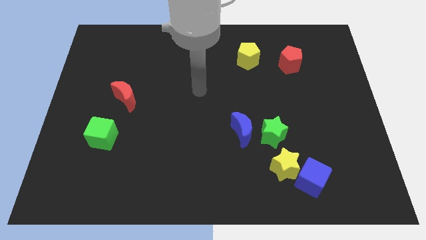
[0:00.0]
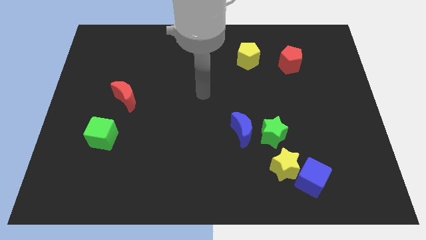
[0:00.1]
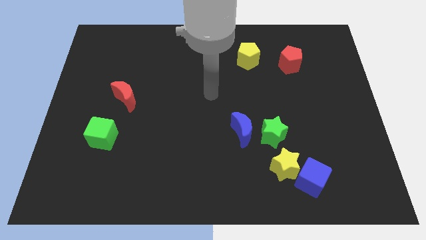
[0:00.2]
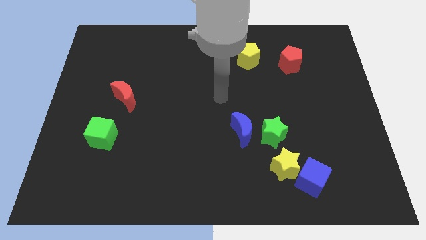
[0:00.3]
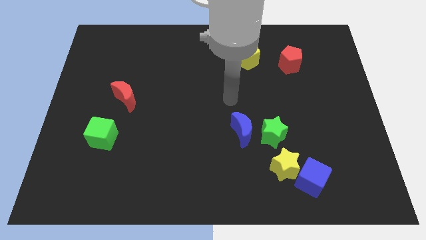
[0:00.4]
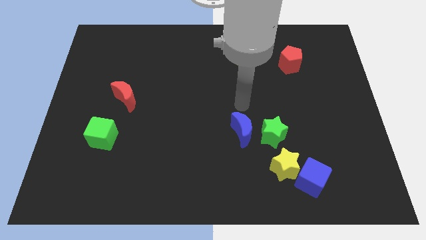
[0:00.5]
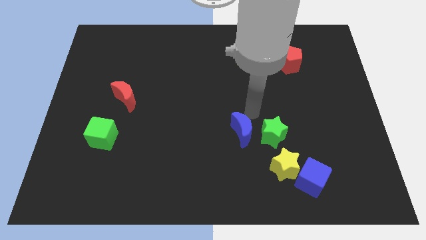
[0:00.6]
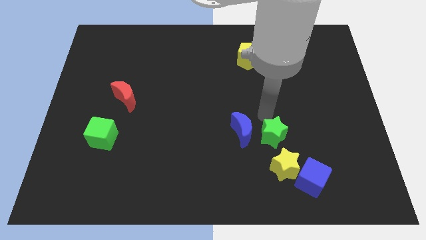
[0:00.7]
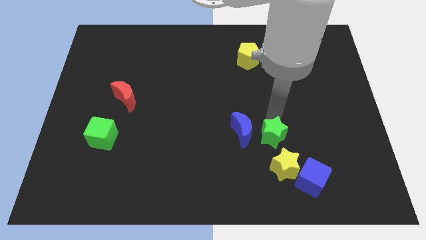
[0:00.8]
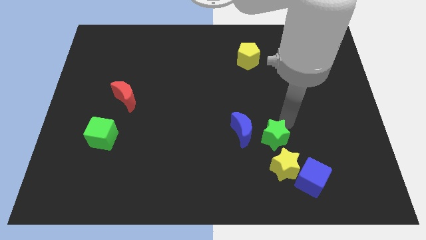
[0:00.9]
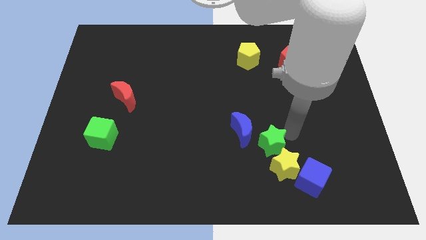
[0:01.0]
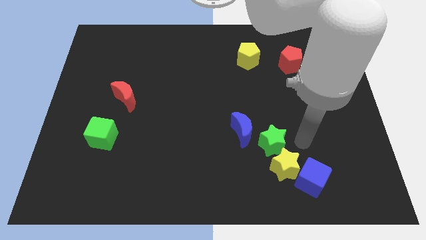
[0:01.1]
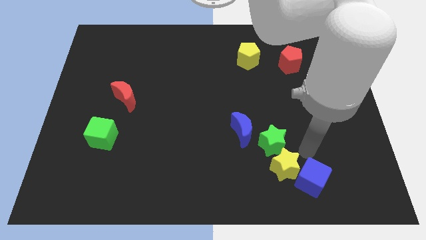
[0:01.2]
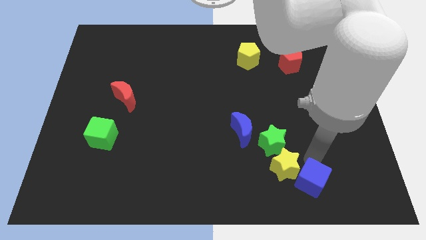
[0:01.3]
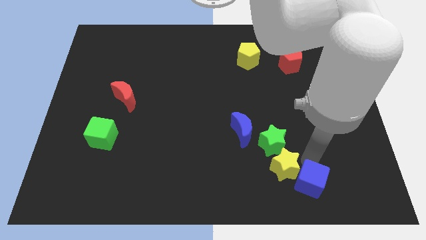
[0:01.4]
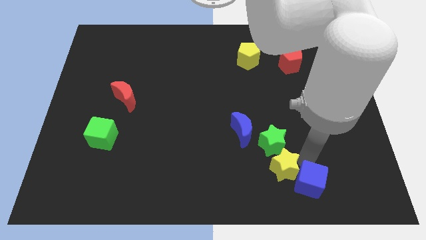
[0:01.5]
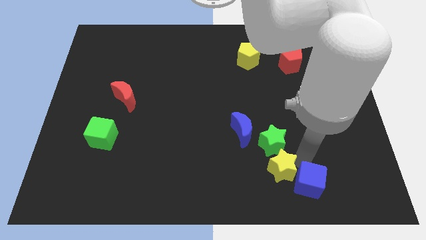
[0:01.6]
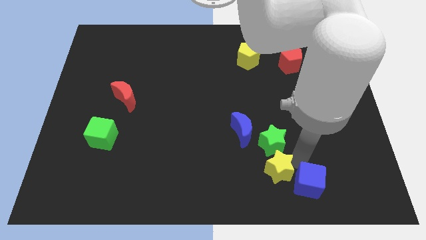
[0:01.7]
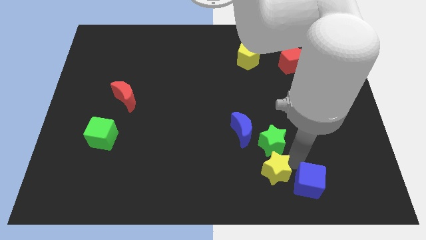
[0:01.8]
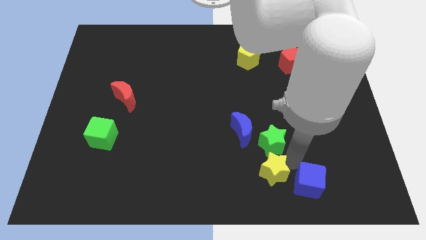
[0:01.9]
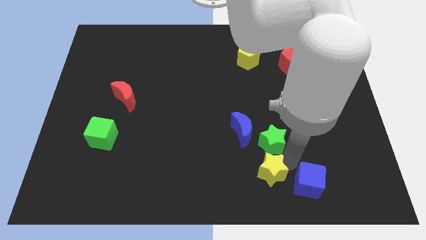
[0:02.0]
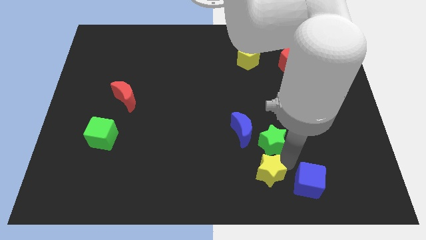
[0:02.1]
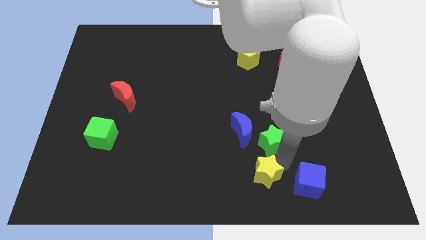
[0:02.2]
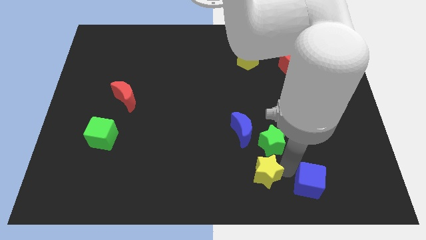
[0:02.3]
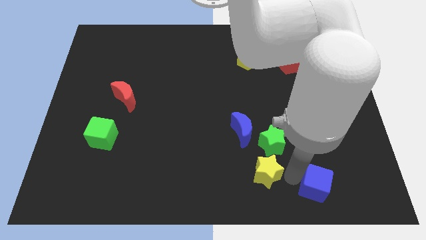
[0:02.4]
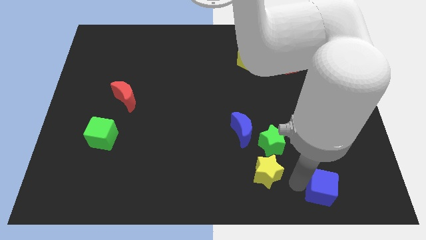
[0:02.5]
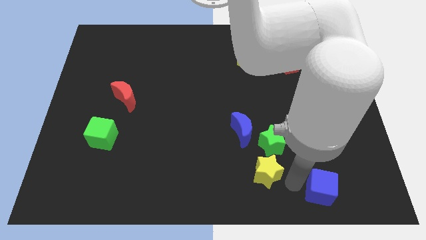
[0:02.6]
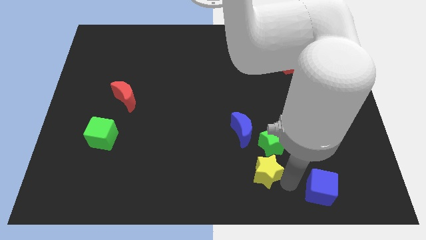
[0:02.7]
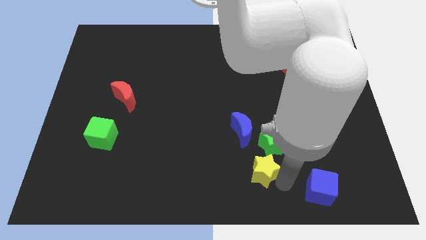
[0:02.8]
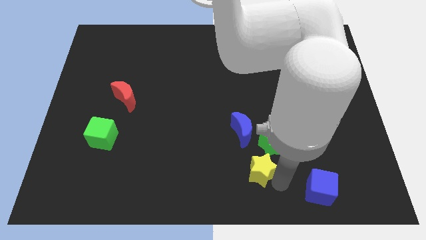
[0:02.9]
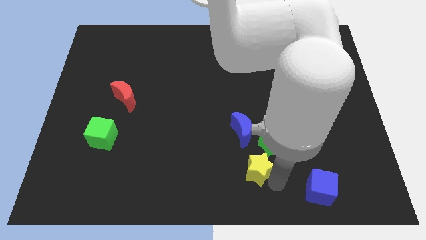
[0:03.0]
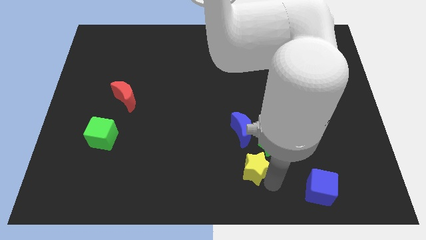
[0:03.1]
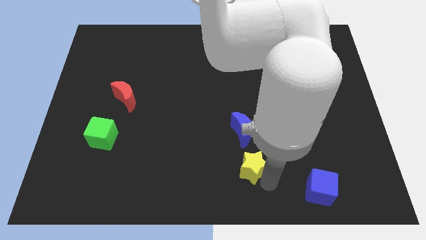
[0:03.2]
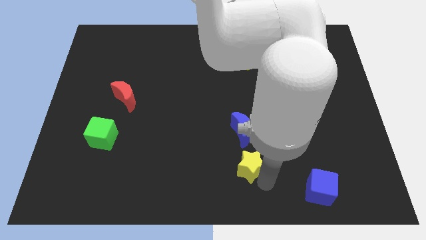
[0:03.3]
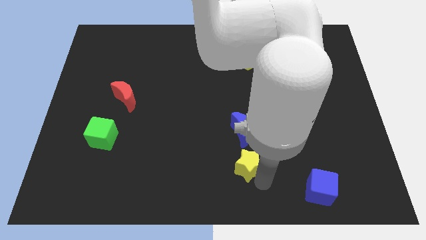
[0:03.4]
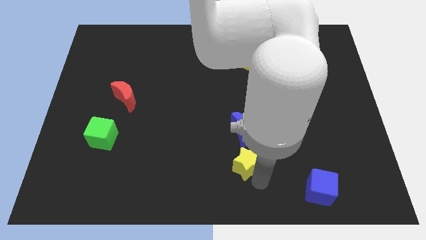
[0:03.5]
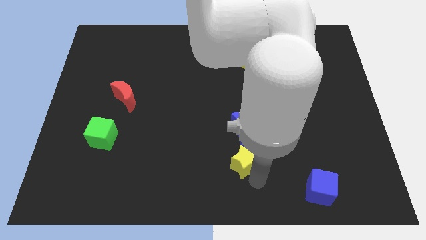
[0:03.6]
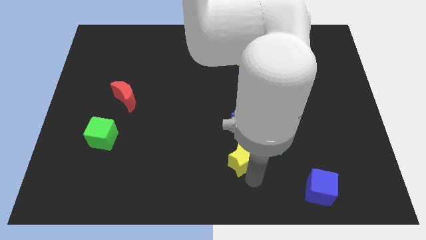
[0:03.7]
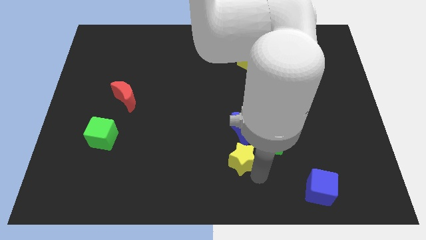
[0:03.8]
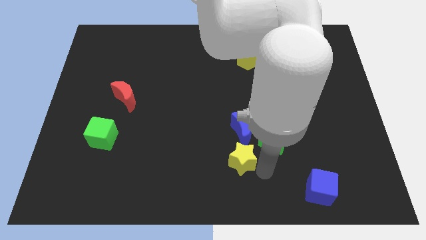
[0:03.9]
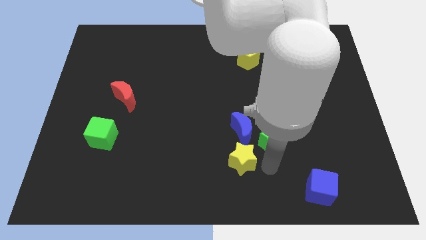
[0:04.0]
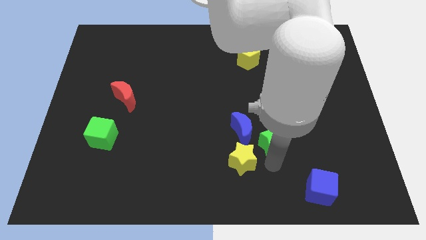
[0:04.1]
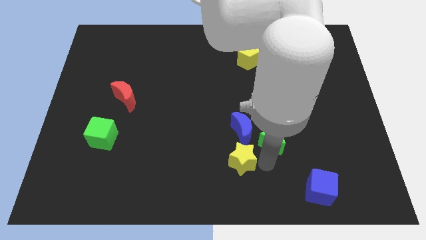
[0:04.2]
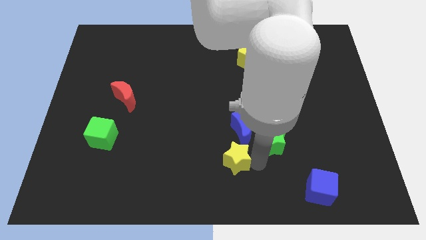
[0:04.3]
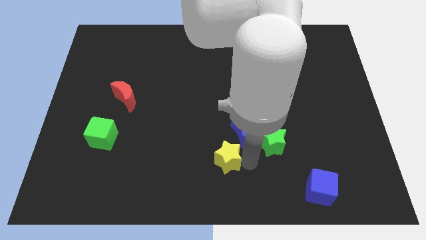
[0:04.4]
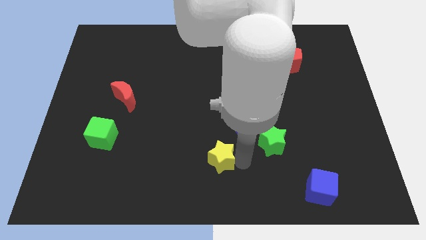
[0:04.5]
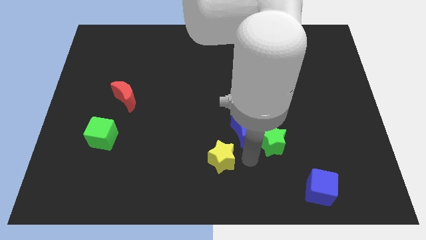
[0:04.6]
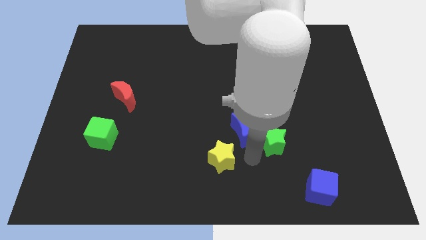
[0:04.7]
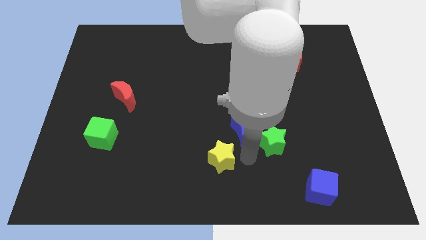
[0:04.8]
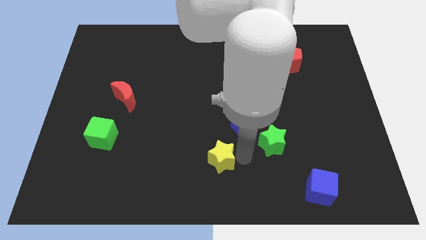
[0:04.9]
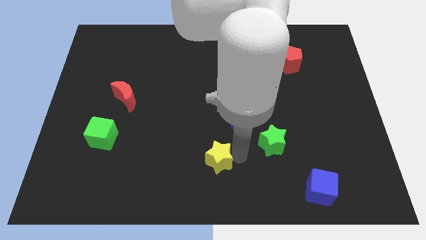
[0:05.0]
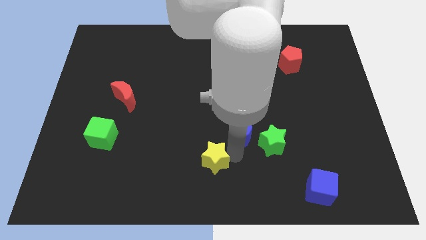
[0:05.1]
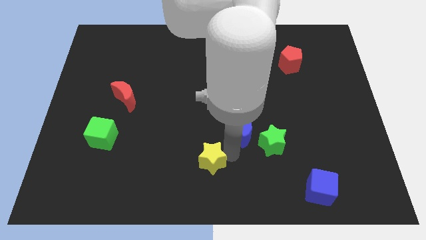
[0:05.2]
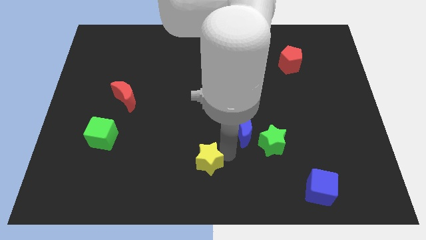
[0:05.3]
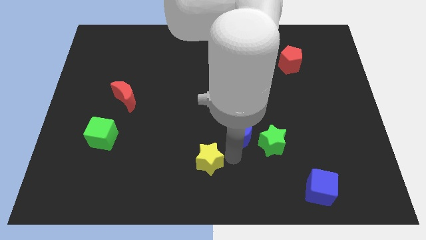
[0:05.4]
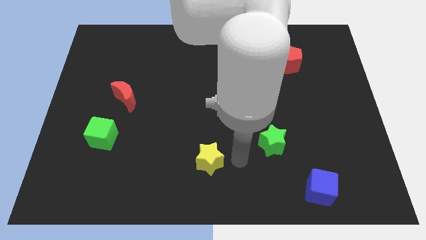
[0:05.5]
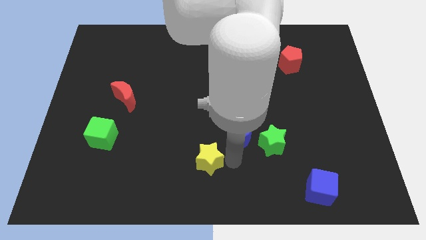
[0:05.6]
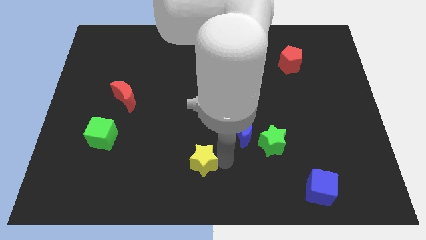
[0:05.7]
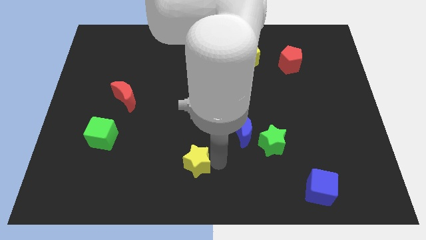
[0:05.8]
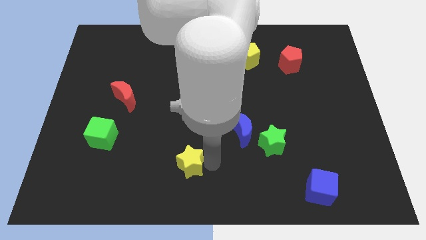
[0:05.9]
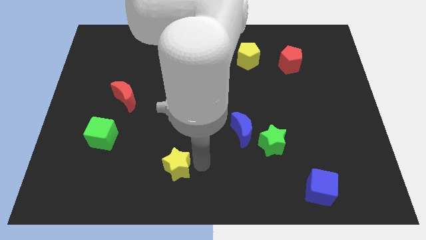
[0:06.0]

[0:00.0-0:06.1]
slide the yellow star to the left

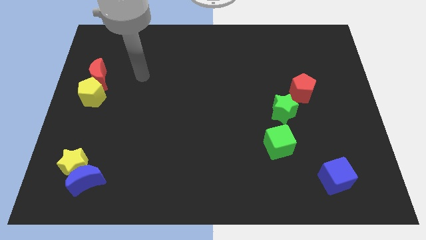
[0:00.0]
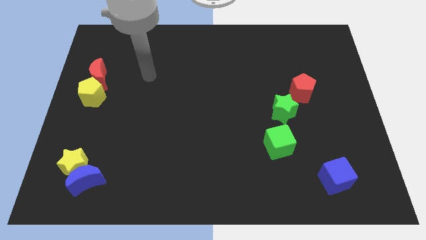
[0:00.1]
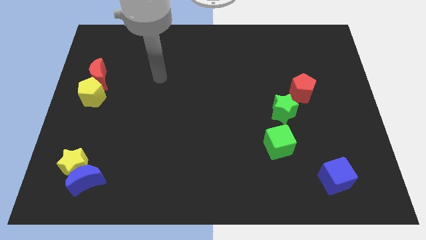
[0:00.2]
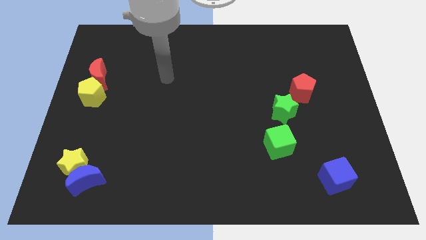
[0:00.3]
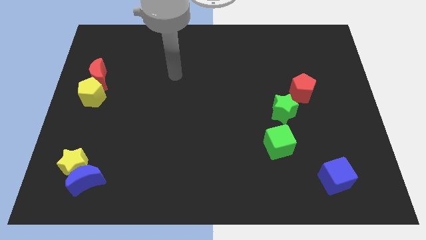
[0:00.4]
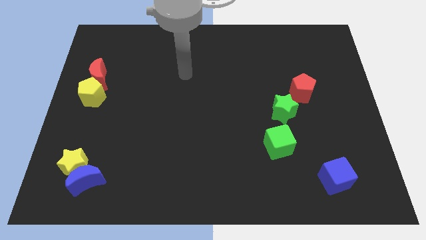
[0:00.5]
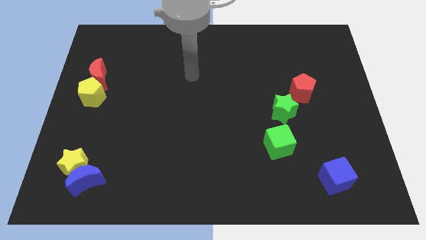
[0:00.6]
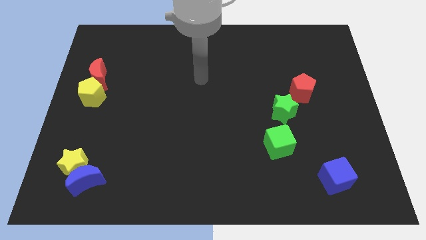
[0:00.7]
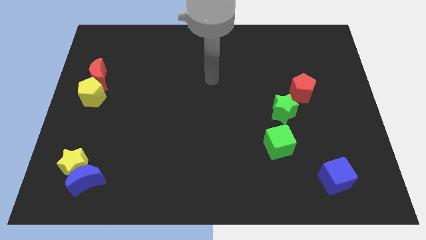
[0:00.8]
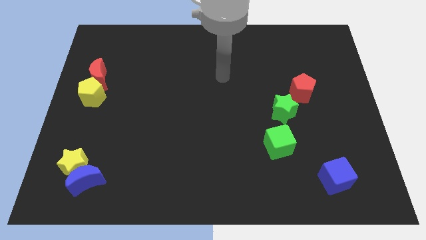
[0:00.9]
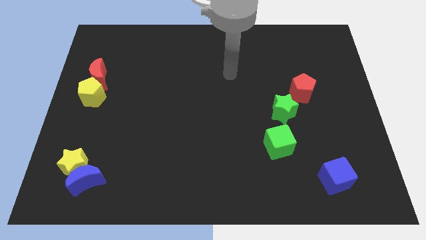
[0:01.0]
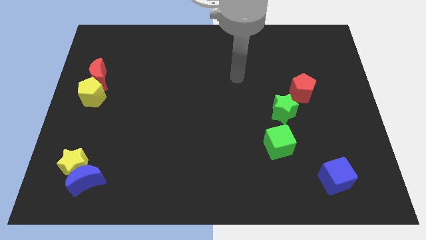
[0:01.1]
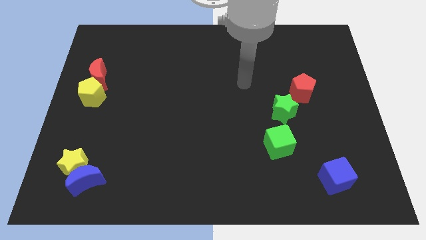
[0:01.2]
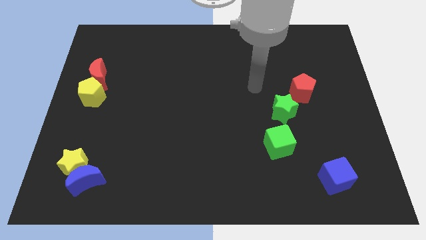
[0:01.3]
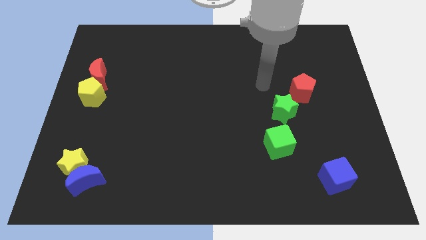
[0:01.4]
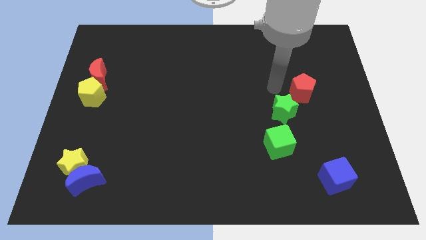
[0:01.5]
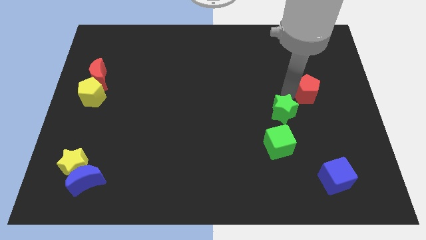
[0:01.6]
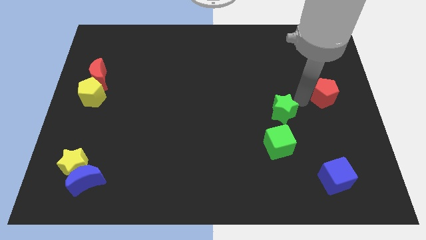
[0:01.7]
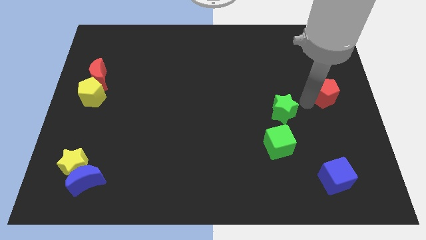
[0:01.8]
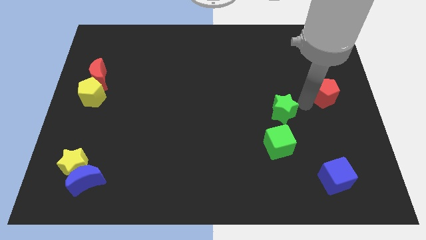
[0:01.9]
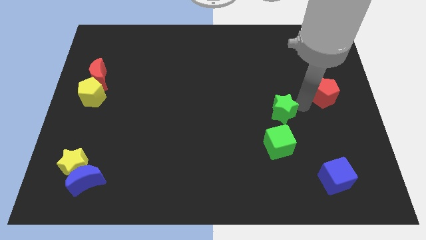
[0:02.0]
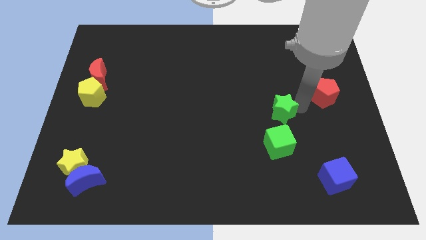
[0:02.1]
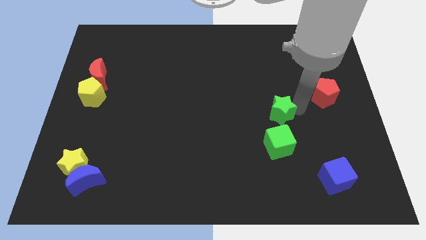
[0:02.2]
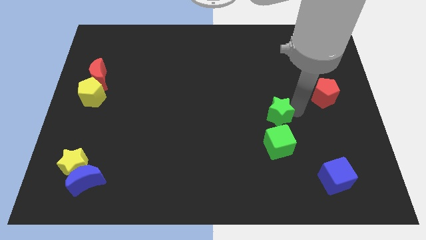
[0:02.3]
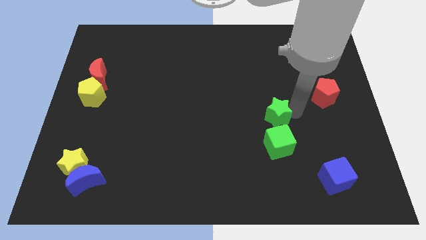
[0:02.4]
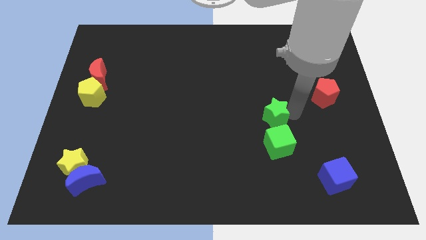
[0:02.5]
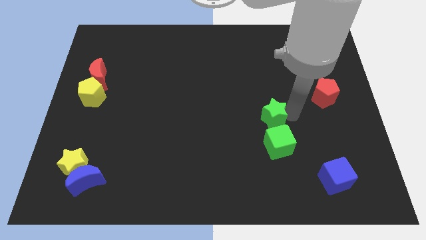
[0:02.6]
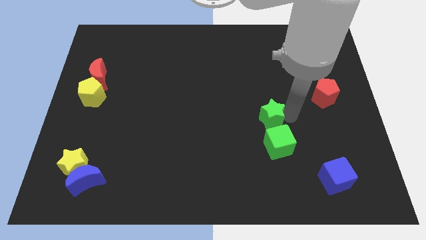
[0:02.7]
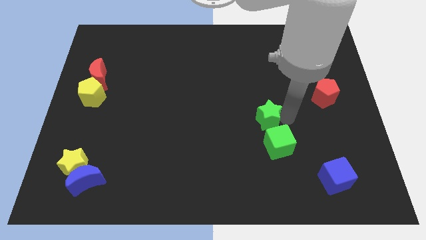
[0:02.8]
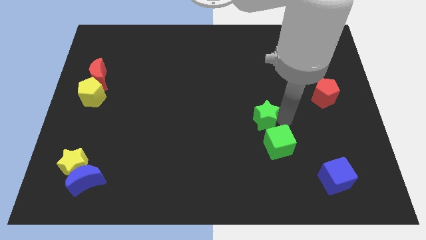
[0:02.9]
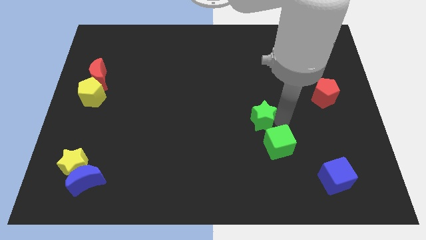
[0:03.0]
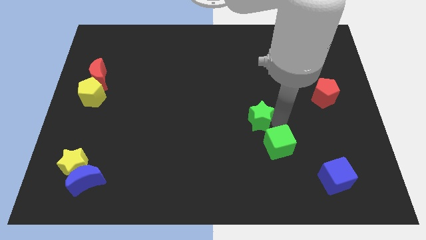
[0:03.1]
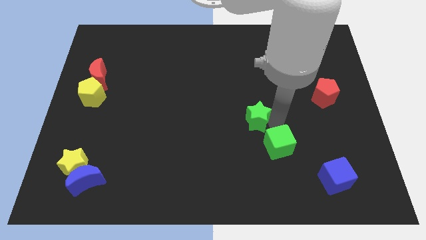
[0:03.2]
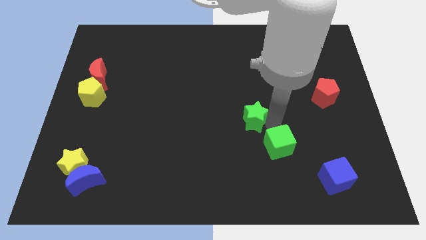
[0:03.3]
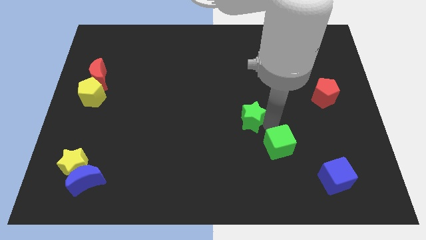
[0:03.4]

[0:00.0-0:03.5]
slightly push the green star to the left
